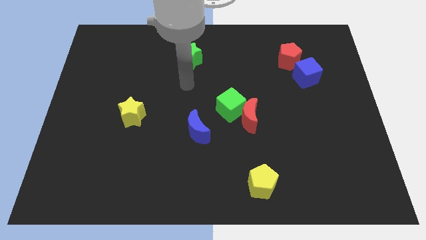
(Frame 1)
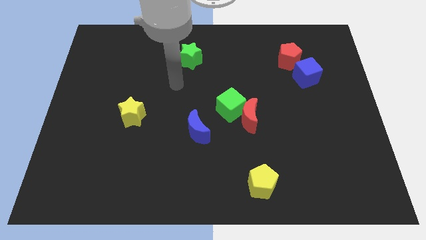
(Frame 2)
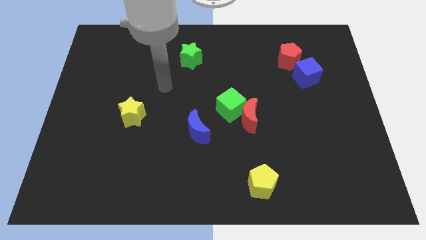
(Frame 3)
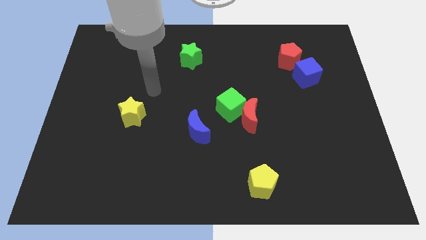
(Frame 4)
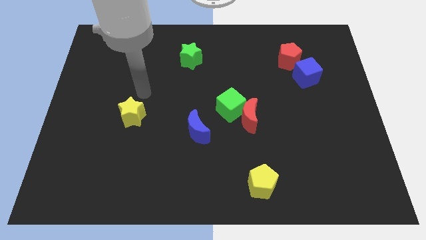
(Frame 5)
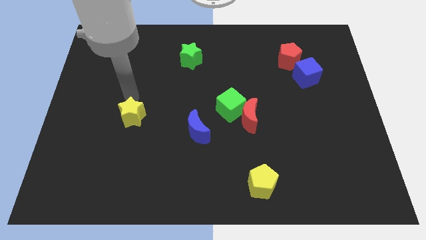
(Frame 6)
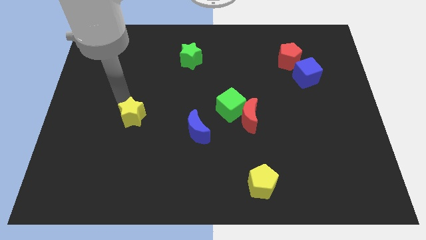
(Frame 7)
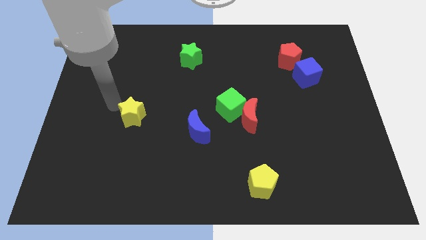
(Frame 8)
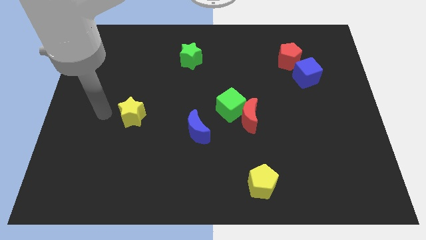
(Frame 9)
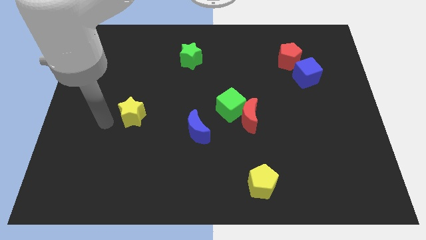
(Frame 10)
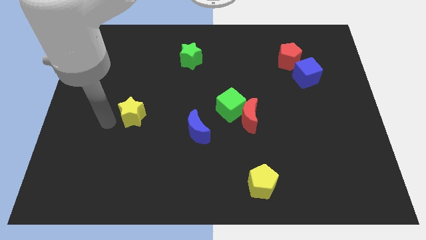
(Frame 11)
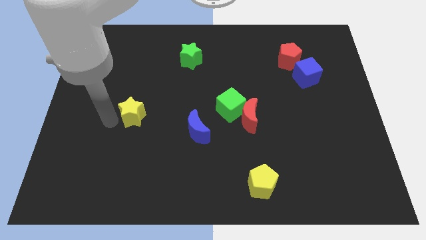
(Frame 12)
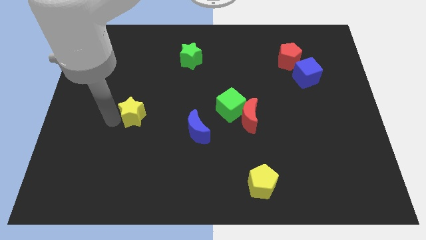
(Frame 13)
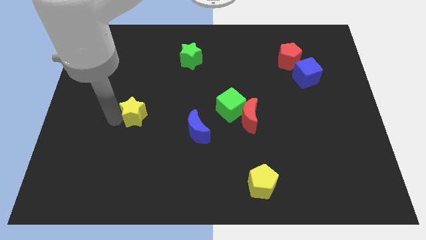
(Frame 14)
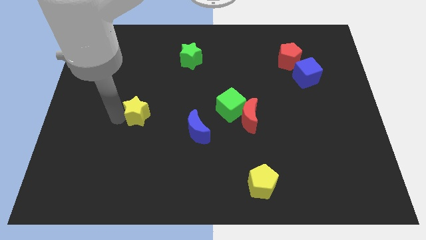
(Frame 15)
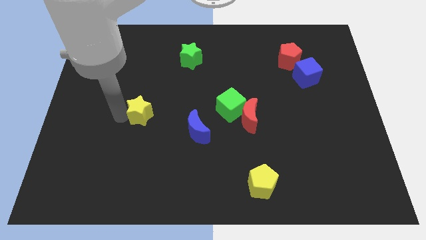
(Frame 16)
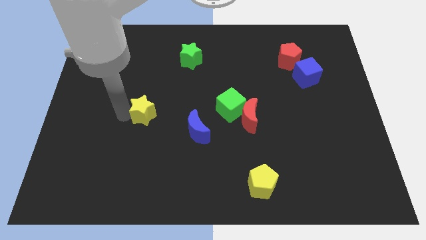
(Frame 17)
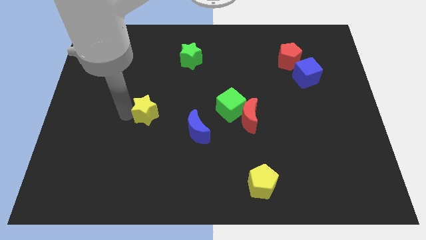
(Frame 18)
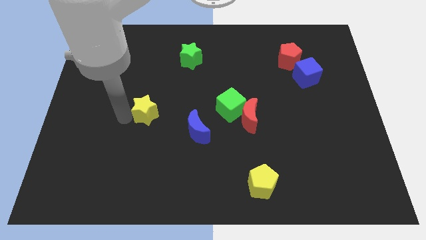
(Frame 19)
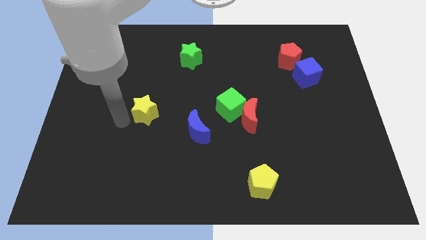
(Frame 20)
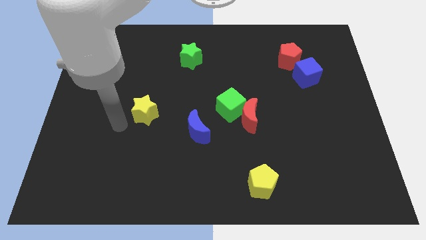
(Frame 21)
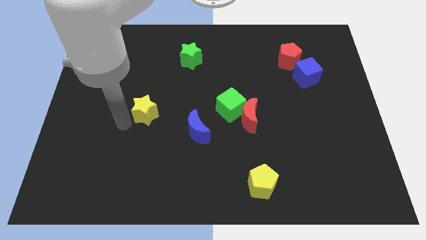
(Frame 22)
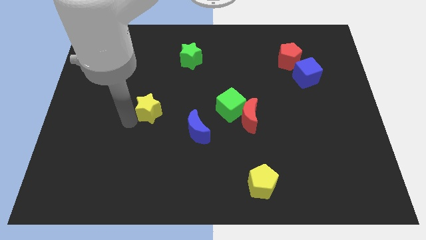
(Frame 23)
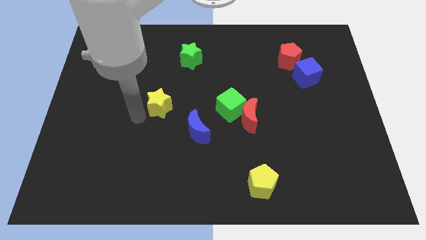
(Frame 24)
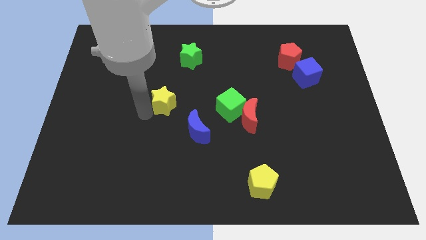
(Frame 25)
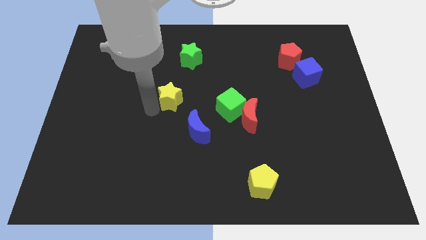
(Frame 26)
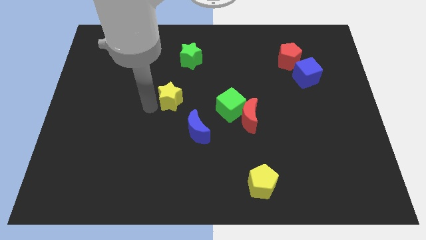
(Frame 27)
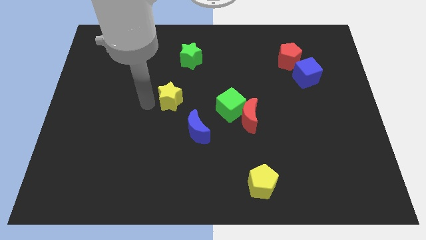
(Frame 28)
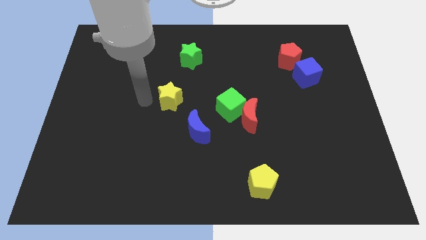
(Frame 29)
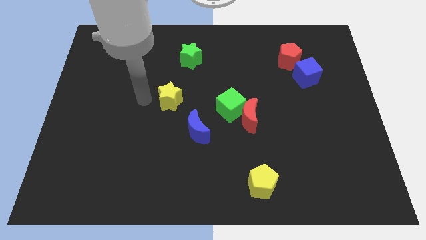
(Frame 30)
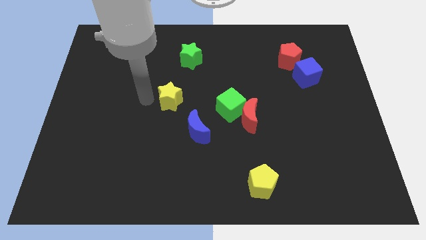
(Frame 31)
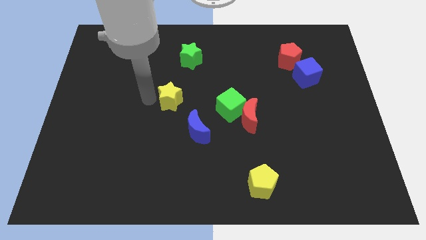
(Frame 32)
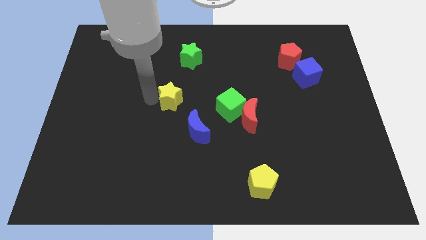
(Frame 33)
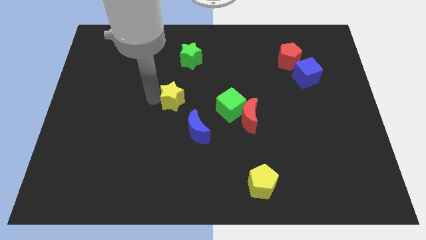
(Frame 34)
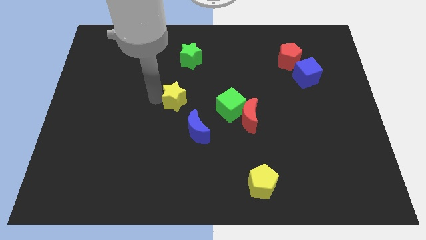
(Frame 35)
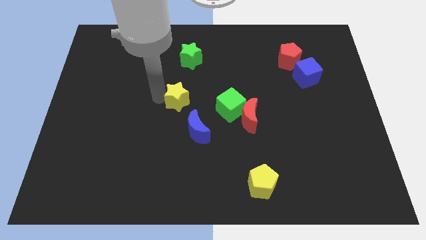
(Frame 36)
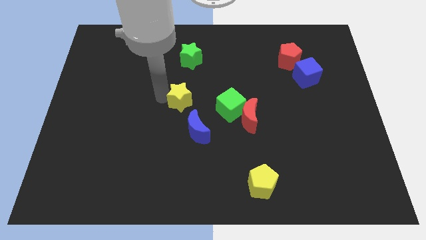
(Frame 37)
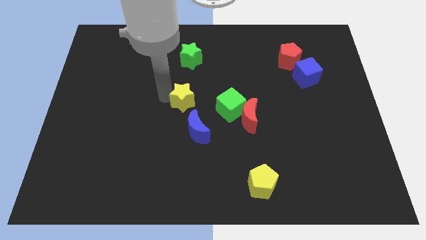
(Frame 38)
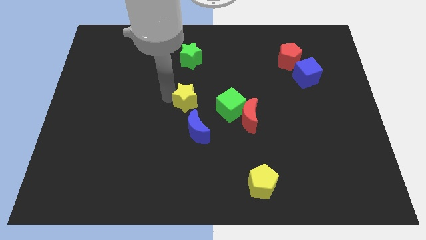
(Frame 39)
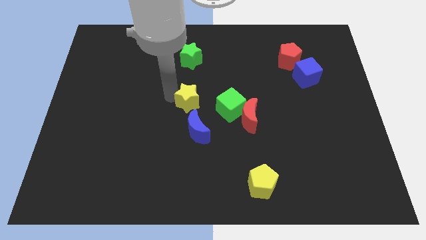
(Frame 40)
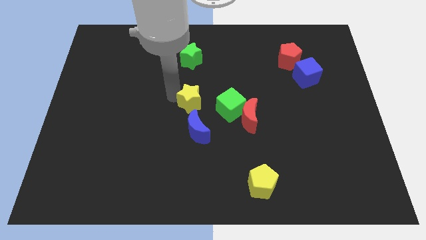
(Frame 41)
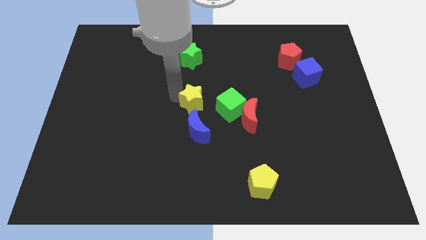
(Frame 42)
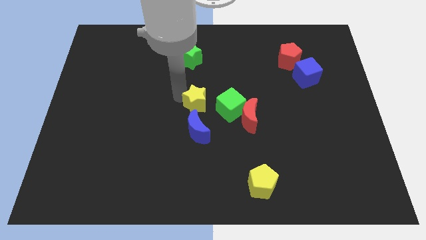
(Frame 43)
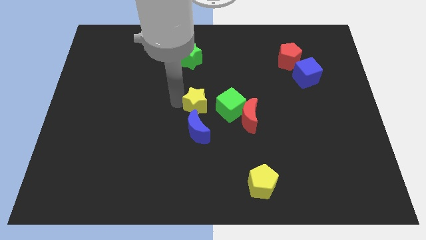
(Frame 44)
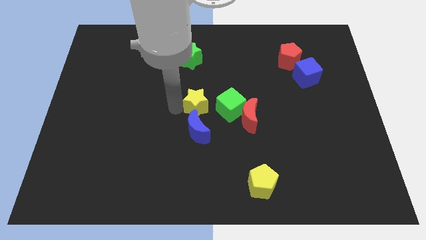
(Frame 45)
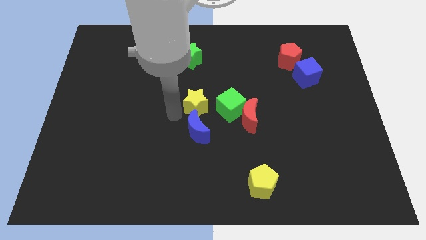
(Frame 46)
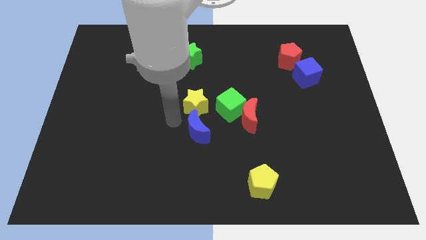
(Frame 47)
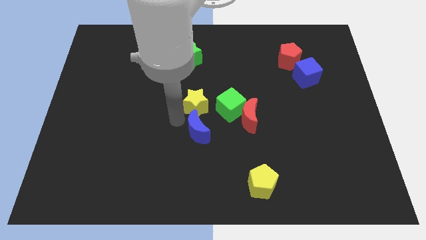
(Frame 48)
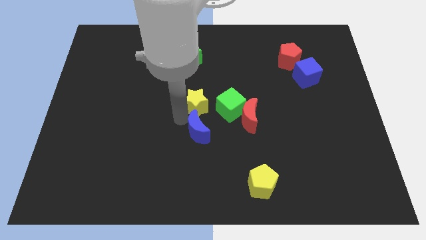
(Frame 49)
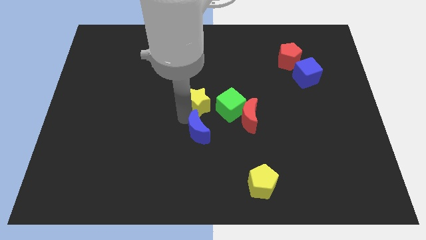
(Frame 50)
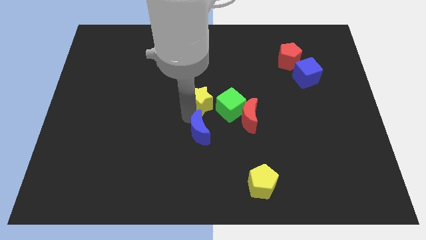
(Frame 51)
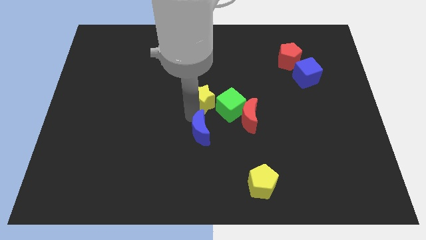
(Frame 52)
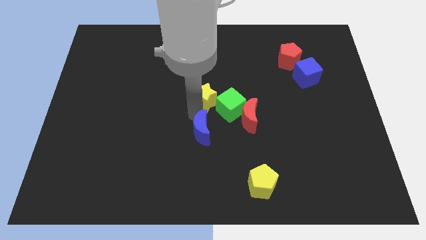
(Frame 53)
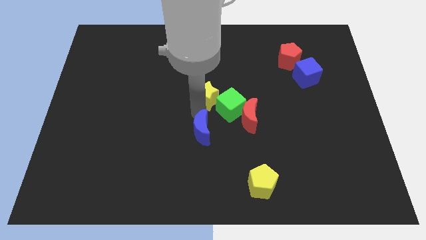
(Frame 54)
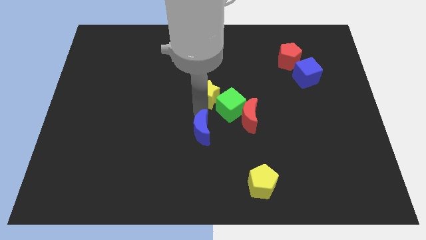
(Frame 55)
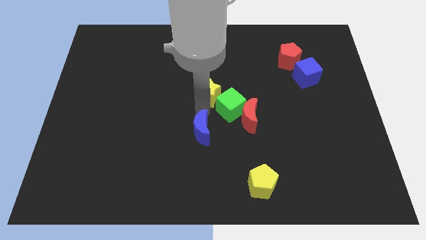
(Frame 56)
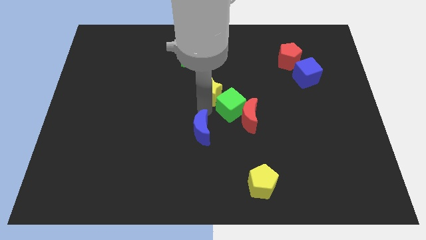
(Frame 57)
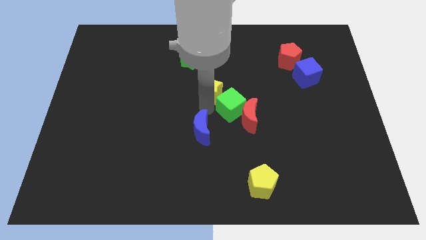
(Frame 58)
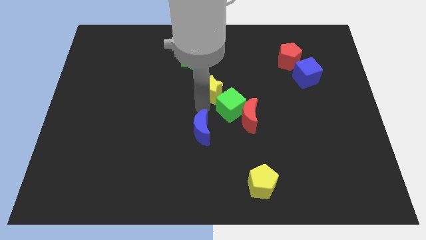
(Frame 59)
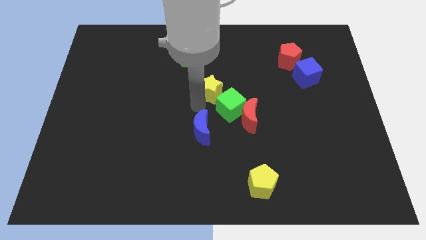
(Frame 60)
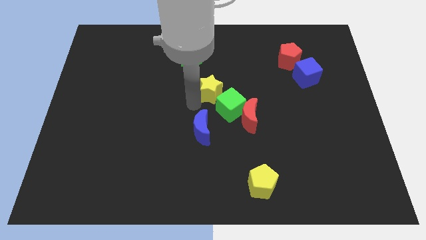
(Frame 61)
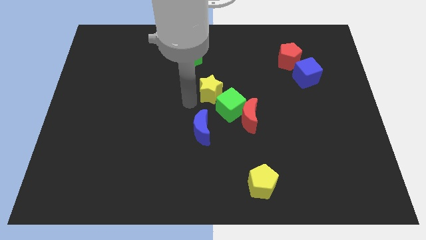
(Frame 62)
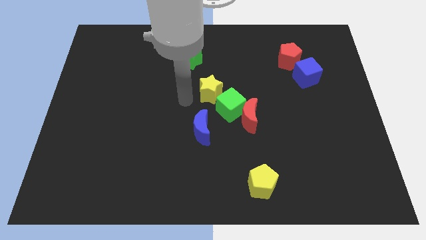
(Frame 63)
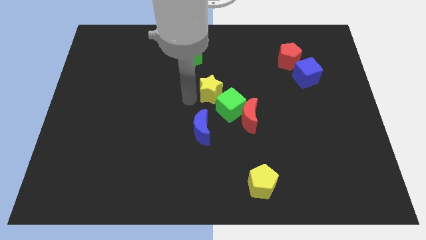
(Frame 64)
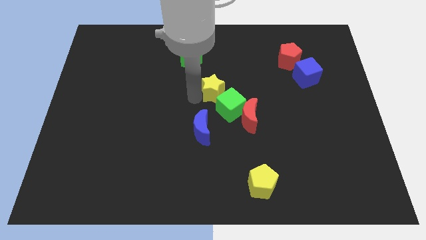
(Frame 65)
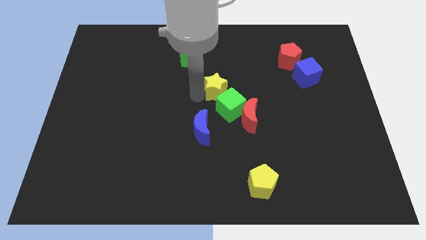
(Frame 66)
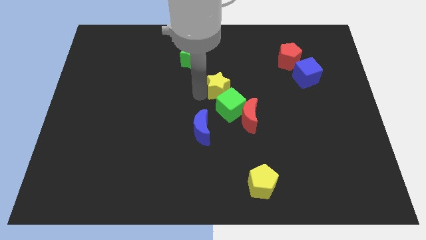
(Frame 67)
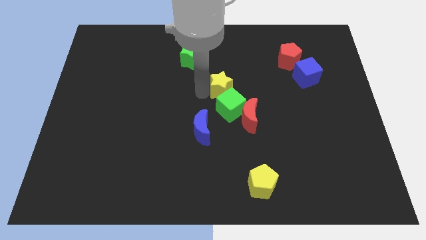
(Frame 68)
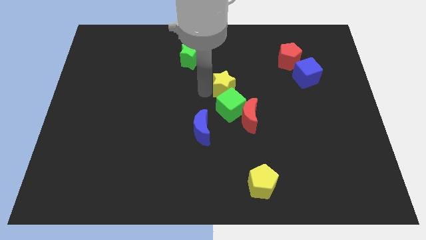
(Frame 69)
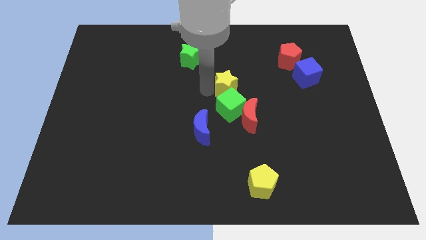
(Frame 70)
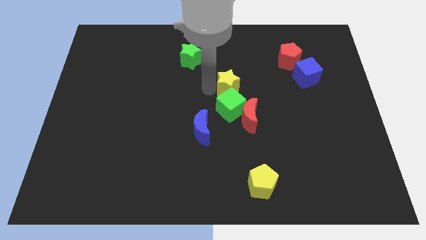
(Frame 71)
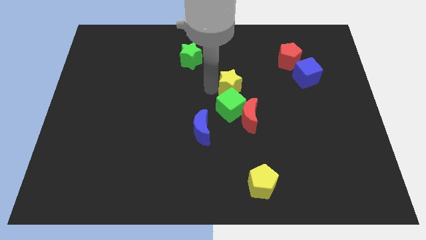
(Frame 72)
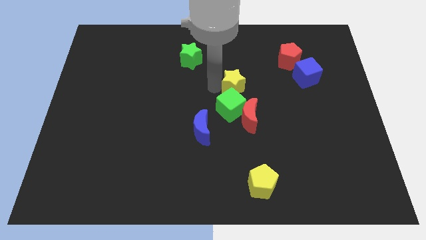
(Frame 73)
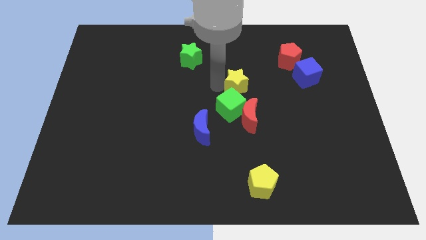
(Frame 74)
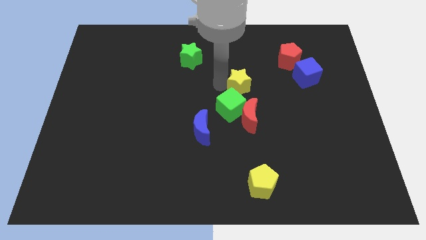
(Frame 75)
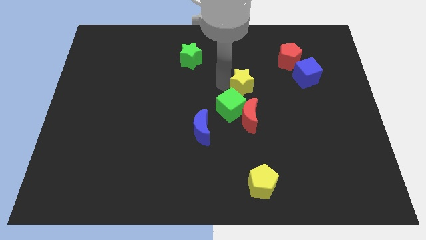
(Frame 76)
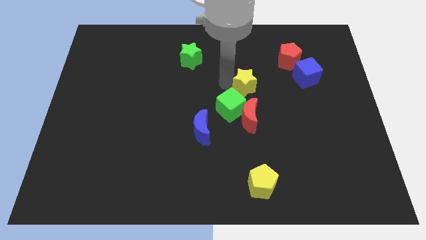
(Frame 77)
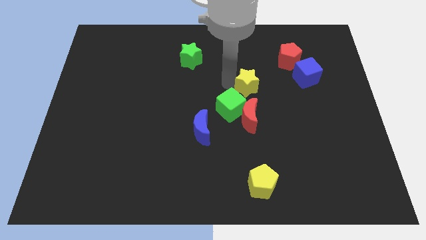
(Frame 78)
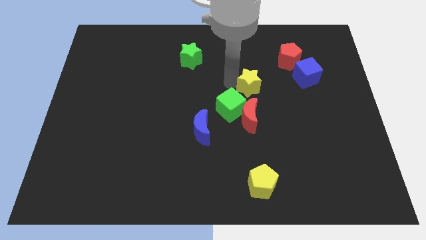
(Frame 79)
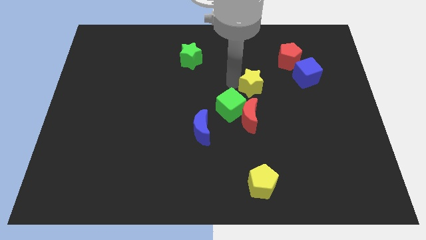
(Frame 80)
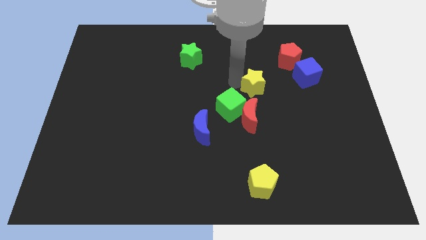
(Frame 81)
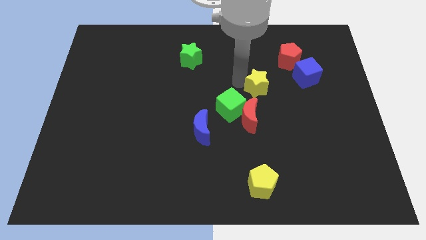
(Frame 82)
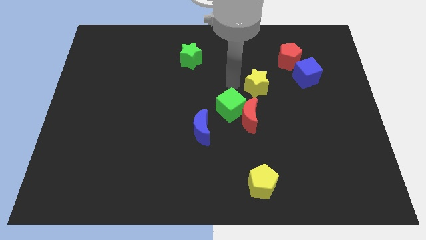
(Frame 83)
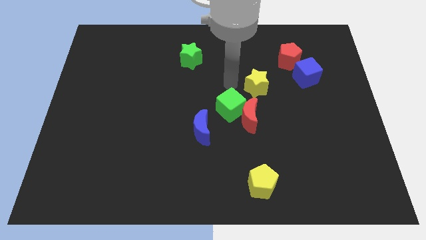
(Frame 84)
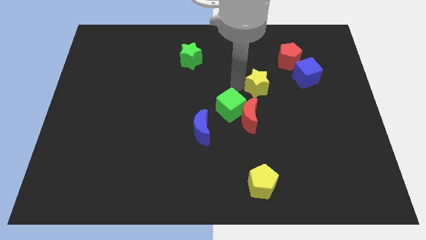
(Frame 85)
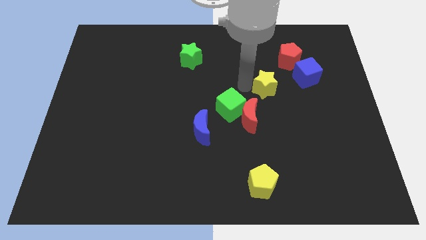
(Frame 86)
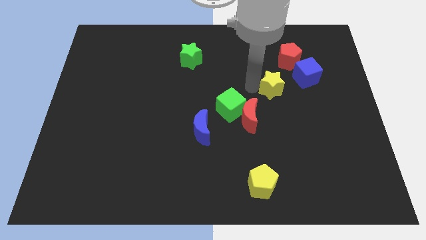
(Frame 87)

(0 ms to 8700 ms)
put the yellow star diagonally down and to the left of the blue cube
